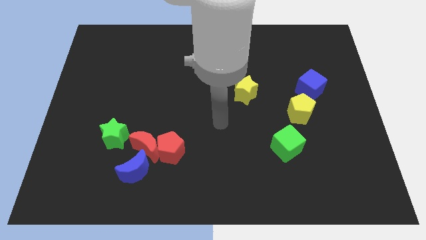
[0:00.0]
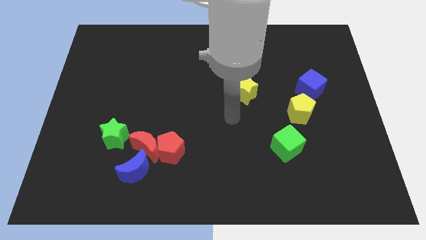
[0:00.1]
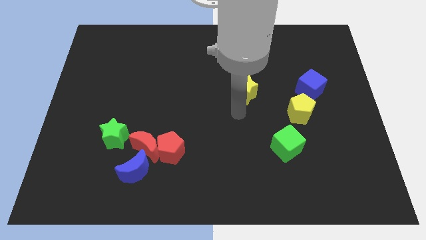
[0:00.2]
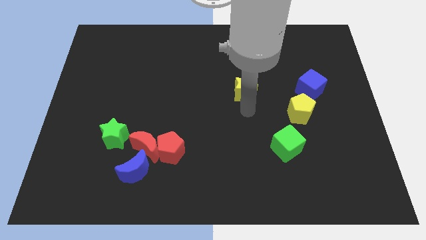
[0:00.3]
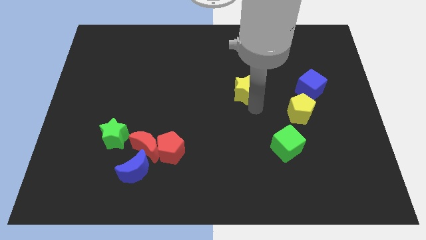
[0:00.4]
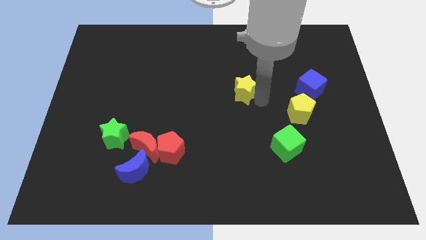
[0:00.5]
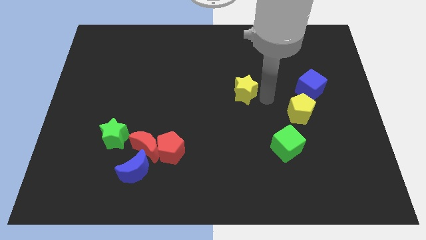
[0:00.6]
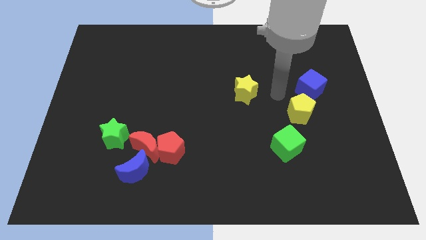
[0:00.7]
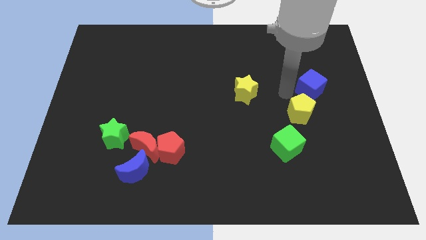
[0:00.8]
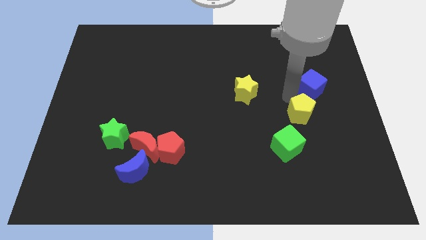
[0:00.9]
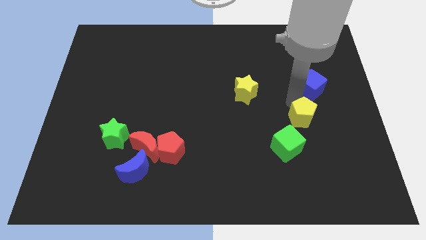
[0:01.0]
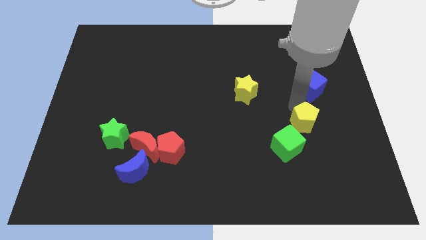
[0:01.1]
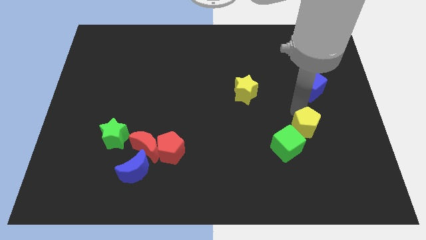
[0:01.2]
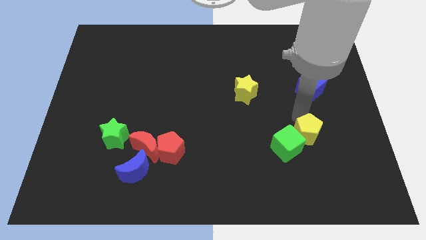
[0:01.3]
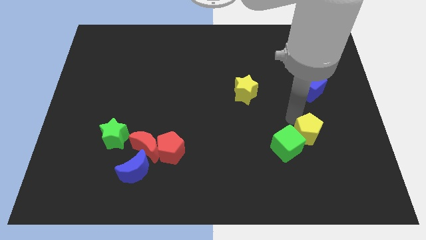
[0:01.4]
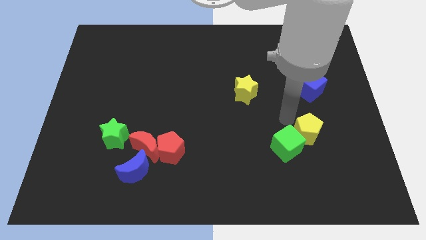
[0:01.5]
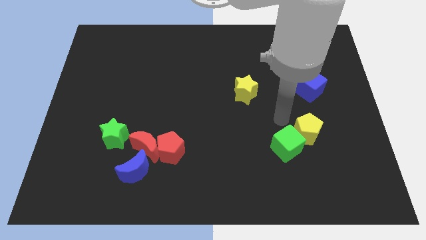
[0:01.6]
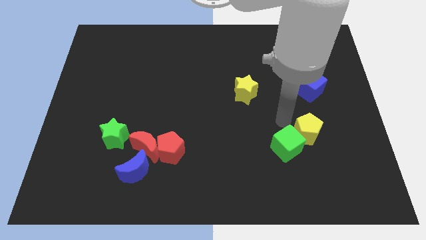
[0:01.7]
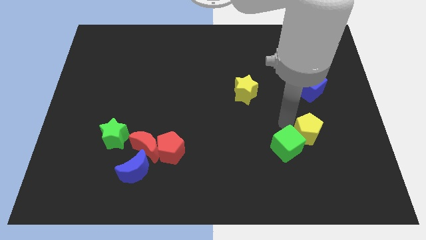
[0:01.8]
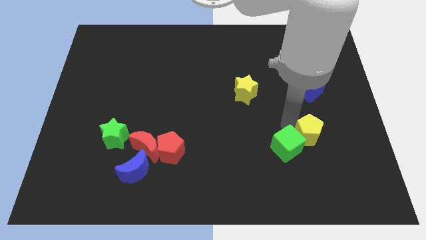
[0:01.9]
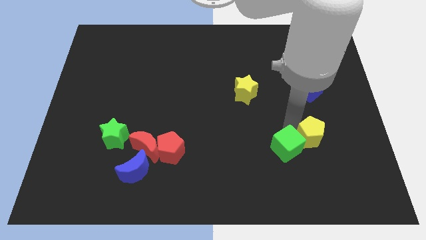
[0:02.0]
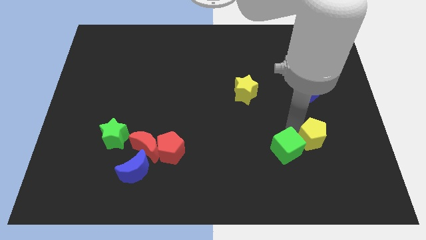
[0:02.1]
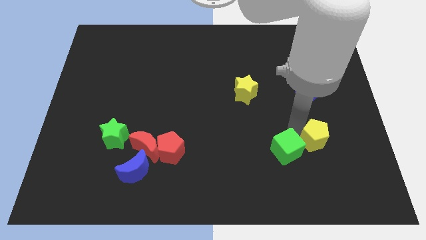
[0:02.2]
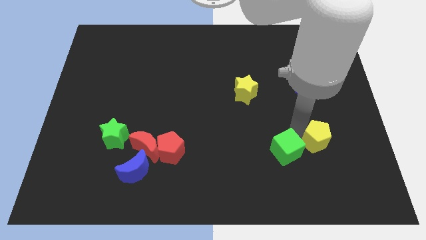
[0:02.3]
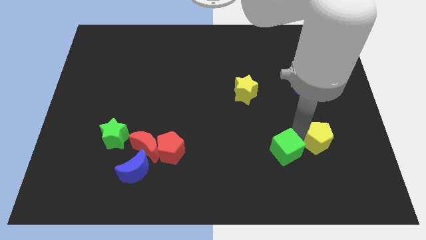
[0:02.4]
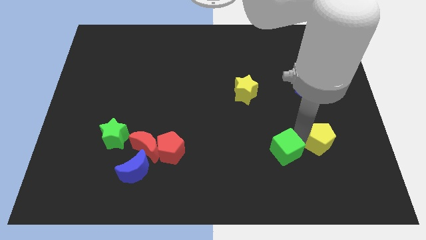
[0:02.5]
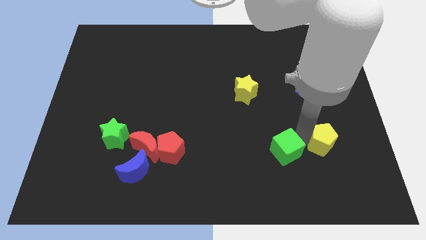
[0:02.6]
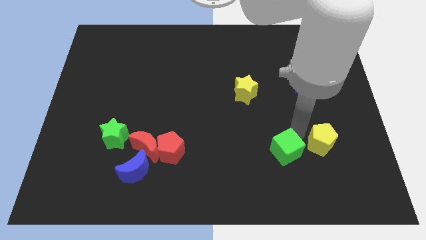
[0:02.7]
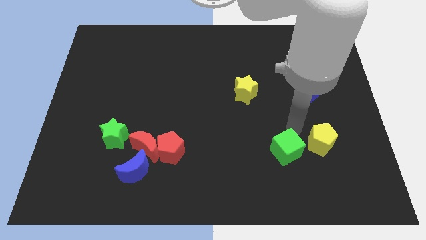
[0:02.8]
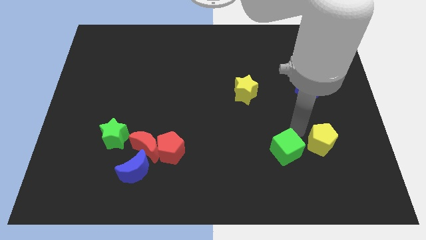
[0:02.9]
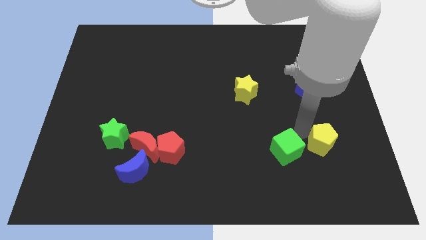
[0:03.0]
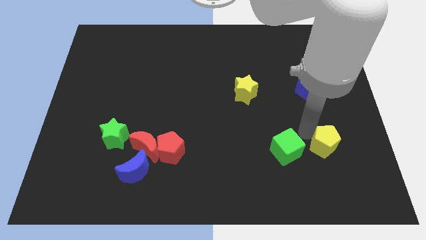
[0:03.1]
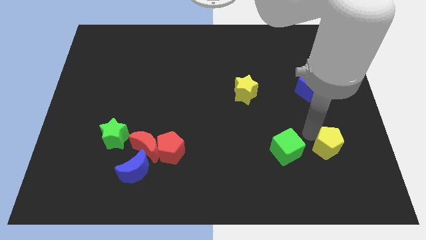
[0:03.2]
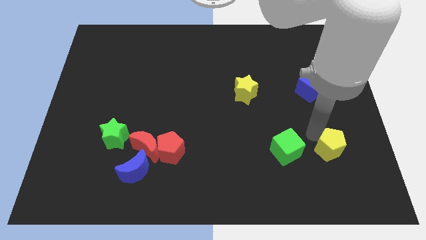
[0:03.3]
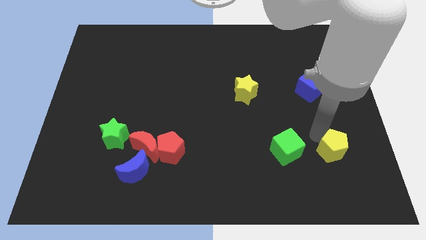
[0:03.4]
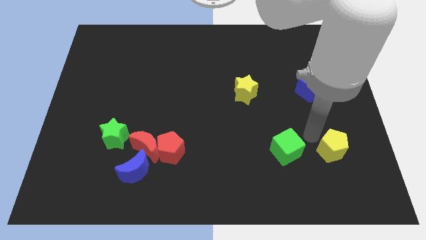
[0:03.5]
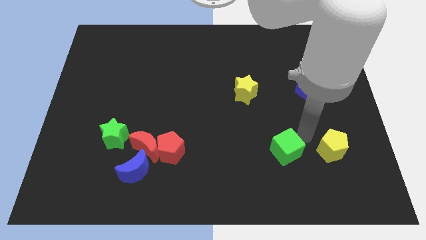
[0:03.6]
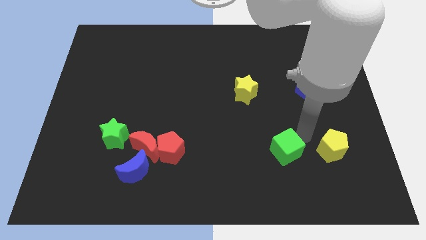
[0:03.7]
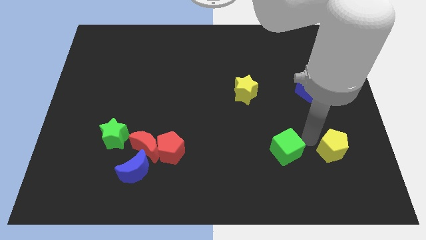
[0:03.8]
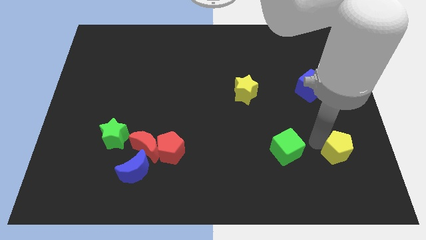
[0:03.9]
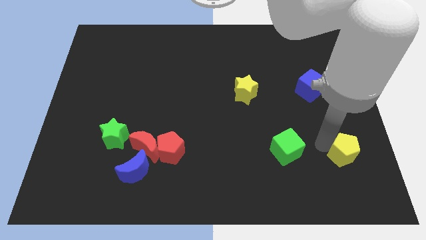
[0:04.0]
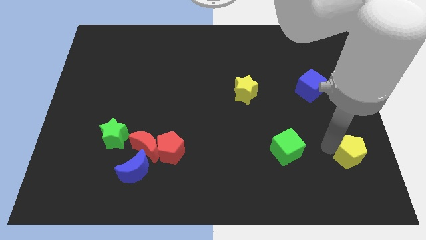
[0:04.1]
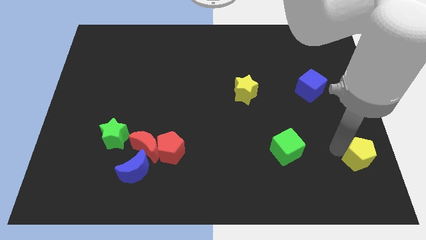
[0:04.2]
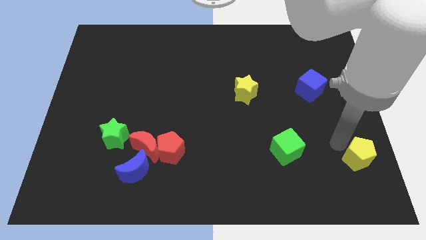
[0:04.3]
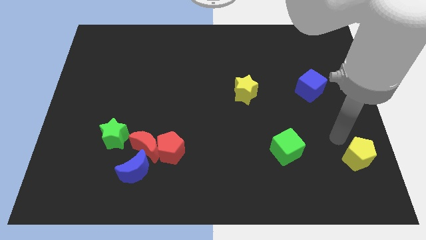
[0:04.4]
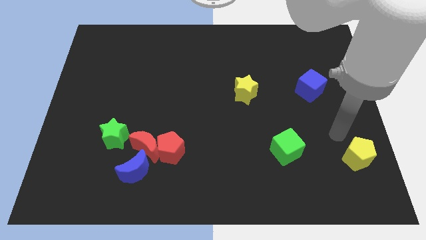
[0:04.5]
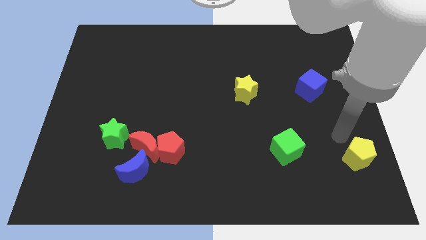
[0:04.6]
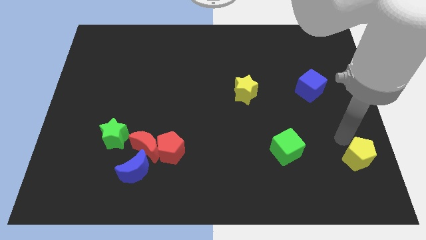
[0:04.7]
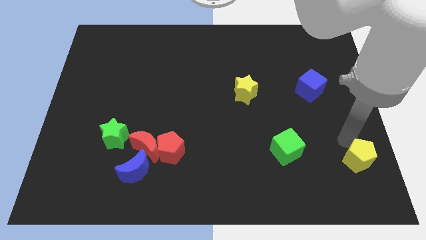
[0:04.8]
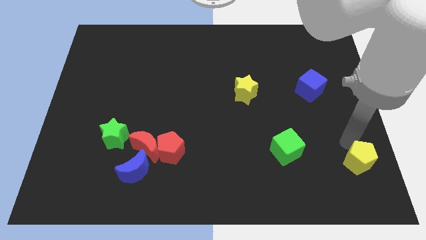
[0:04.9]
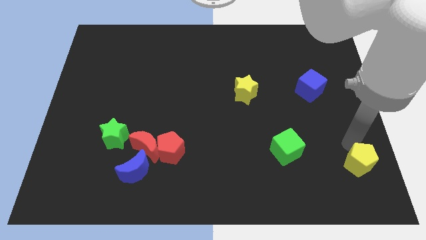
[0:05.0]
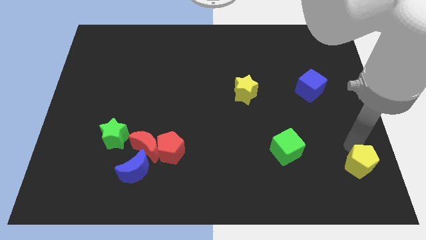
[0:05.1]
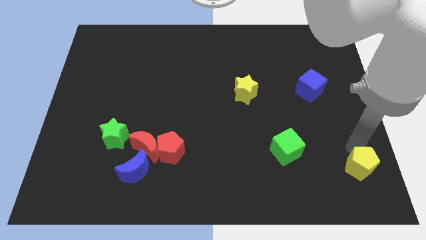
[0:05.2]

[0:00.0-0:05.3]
push the yellow pentagon to the bottom right

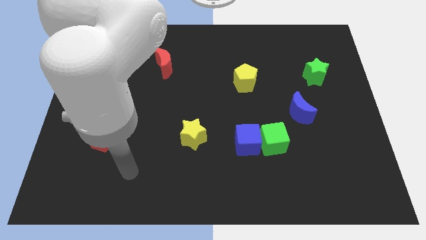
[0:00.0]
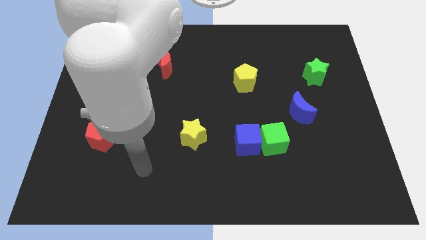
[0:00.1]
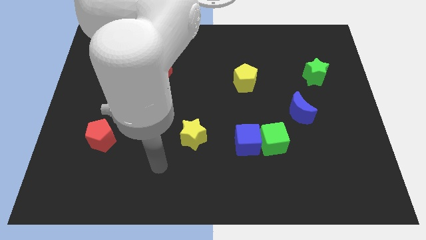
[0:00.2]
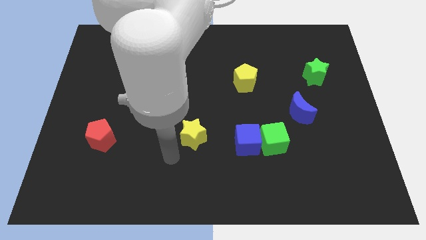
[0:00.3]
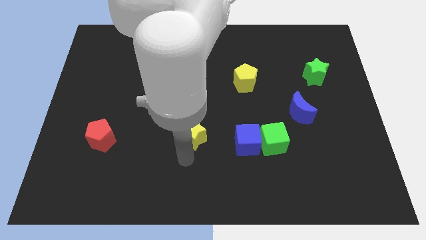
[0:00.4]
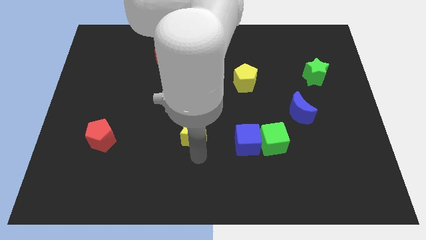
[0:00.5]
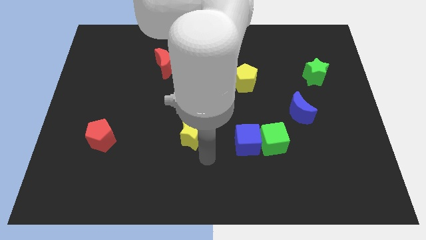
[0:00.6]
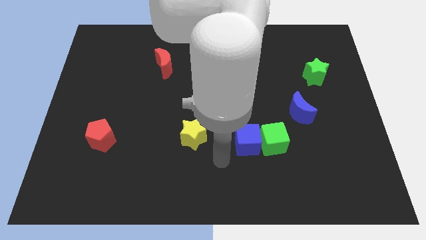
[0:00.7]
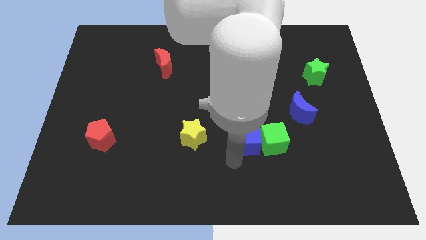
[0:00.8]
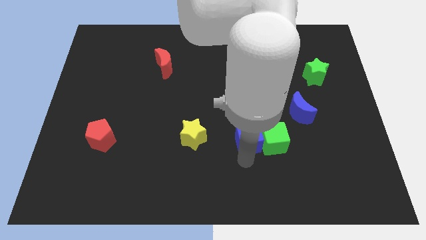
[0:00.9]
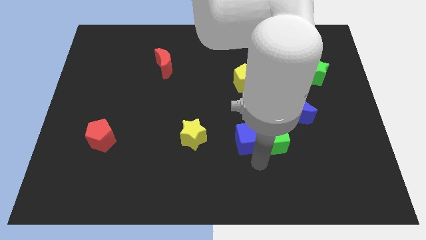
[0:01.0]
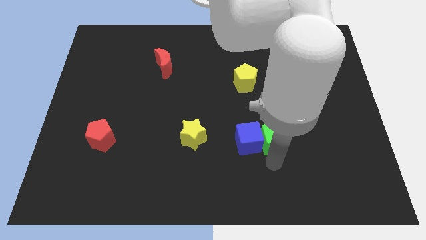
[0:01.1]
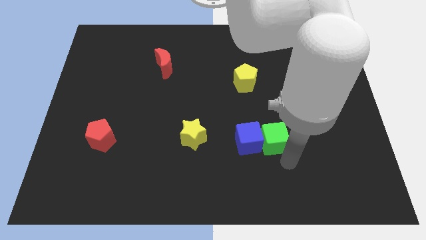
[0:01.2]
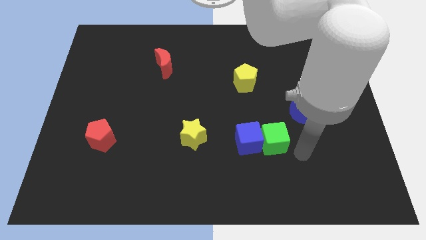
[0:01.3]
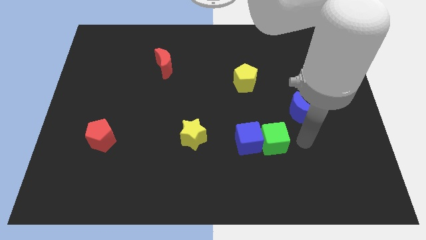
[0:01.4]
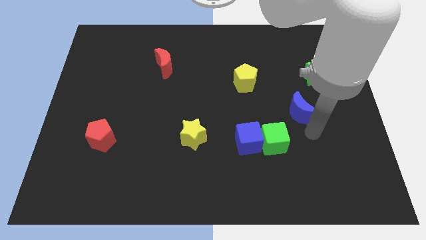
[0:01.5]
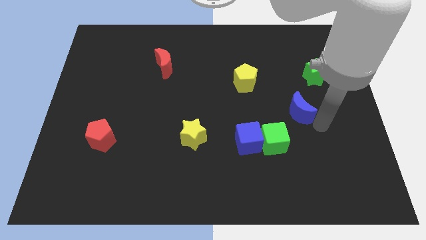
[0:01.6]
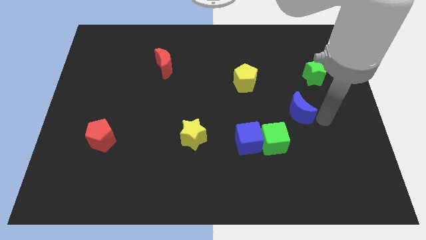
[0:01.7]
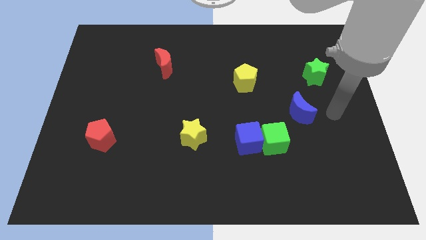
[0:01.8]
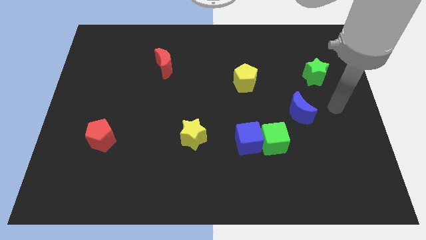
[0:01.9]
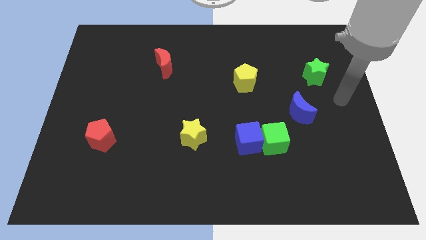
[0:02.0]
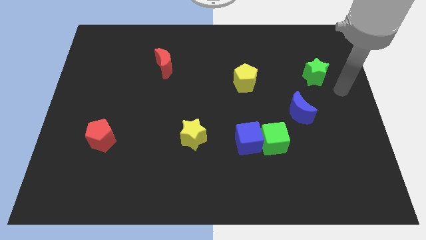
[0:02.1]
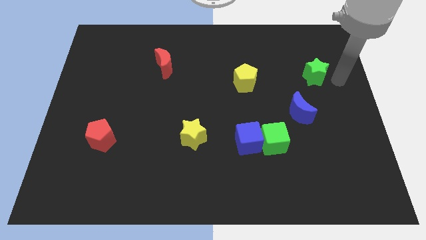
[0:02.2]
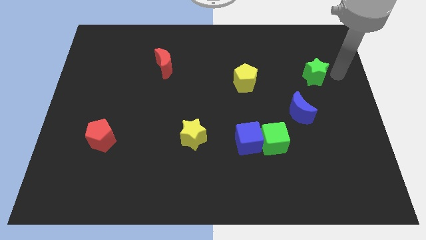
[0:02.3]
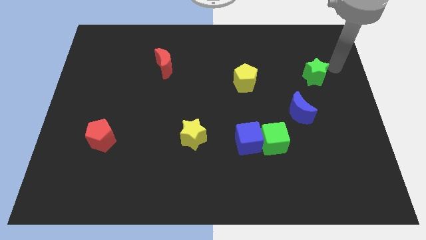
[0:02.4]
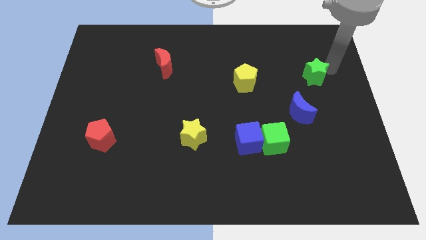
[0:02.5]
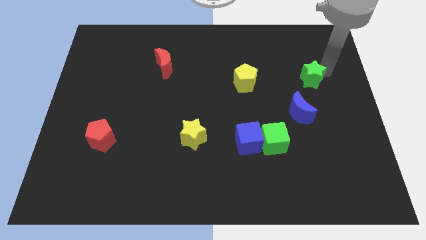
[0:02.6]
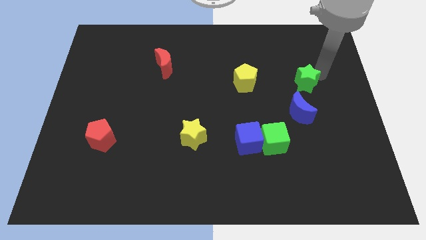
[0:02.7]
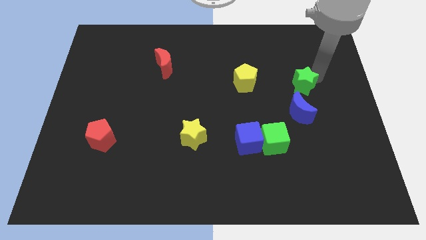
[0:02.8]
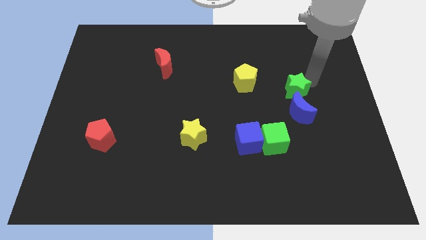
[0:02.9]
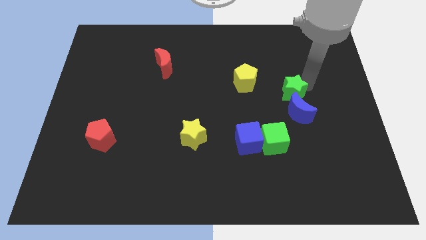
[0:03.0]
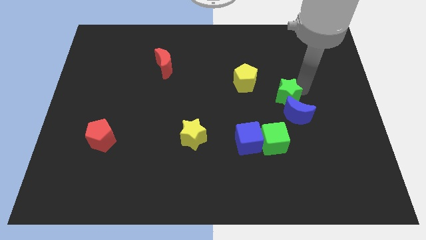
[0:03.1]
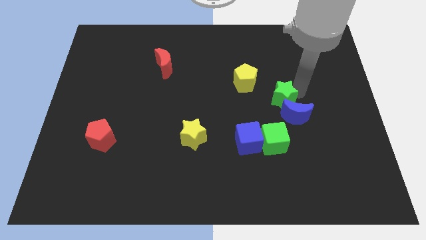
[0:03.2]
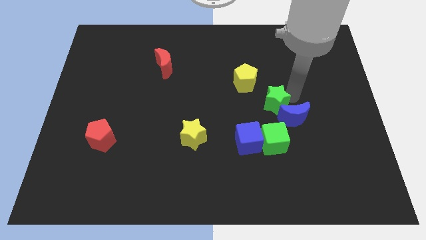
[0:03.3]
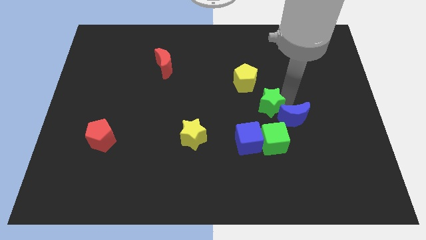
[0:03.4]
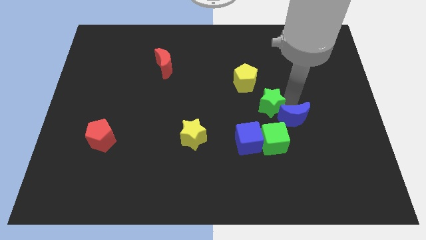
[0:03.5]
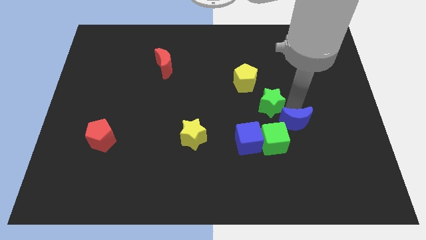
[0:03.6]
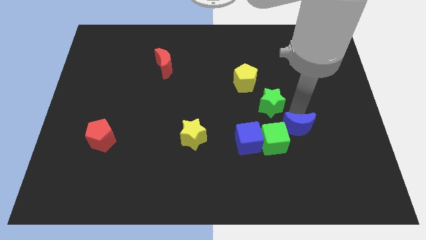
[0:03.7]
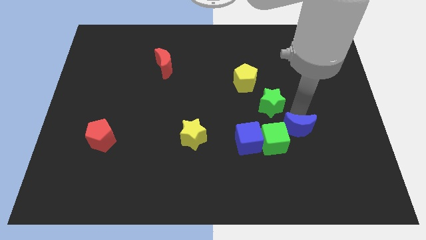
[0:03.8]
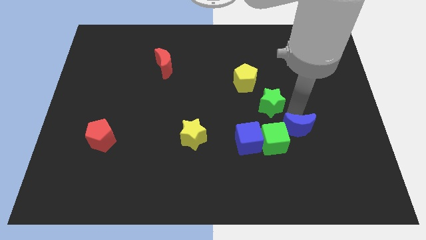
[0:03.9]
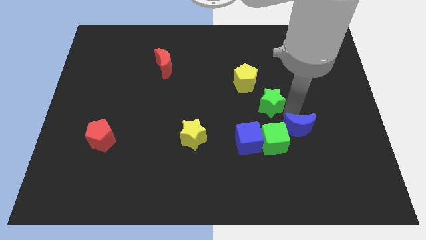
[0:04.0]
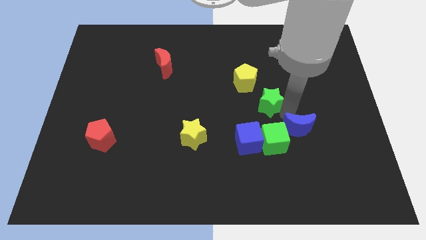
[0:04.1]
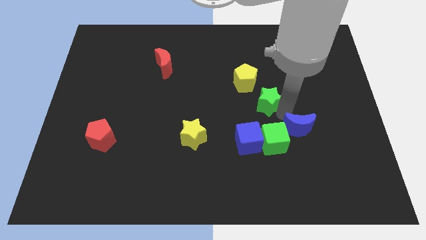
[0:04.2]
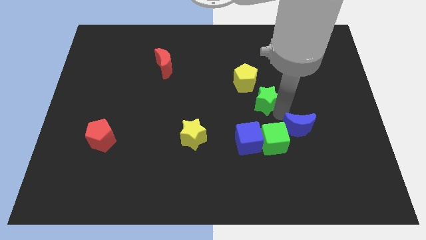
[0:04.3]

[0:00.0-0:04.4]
push the green star to the center
